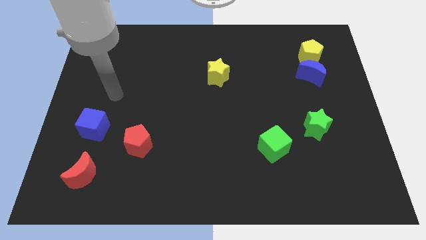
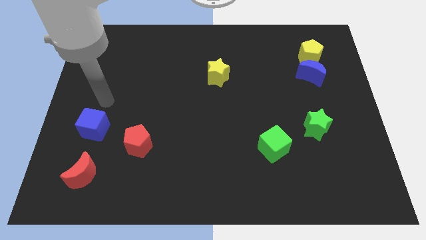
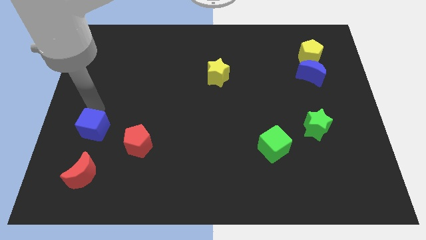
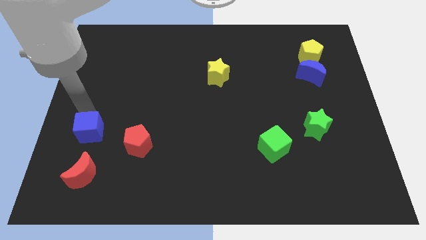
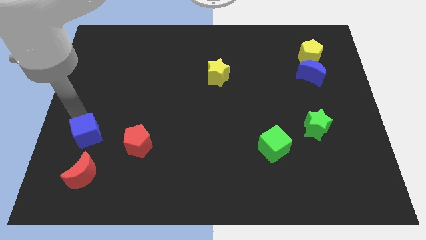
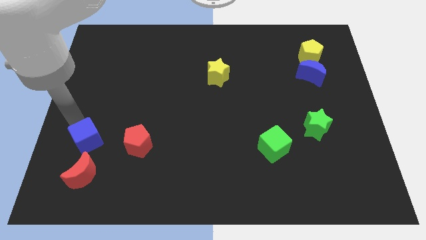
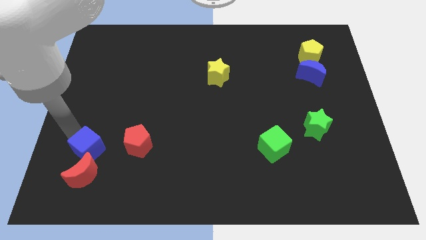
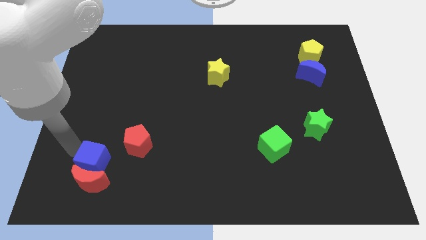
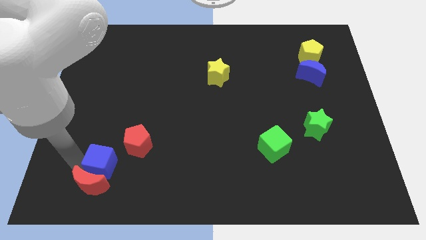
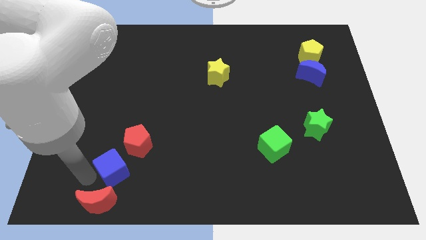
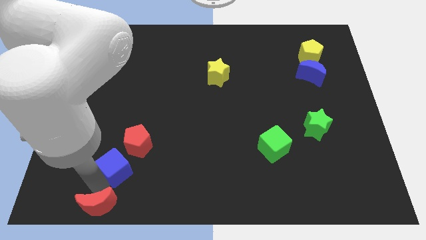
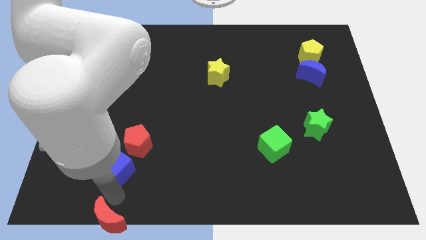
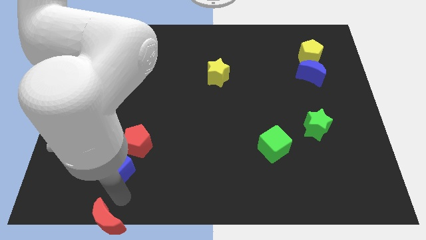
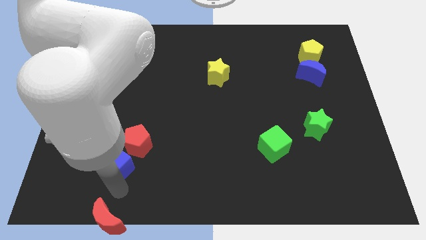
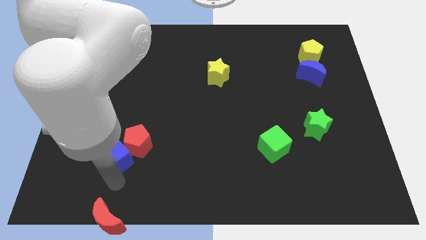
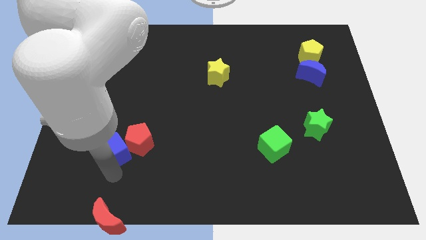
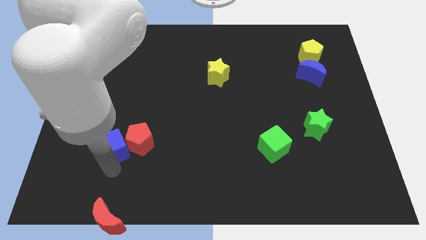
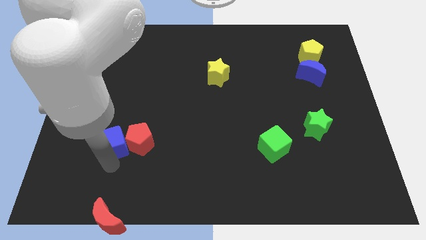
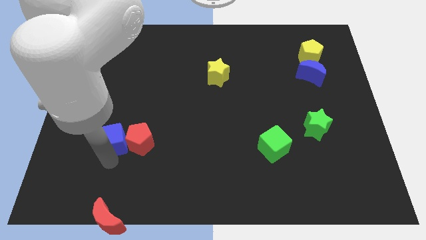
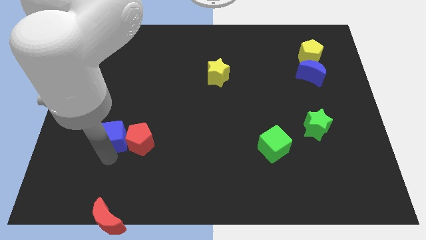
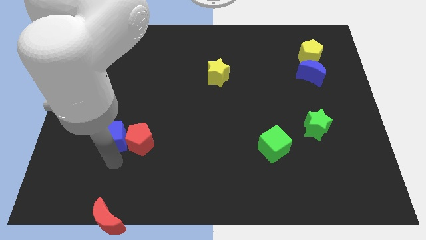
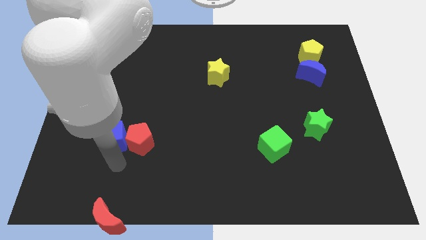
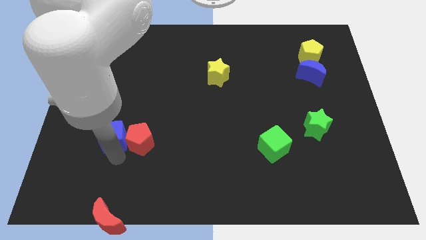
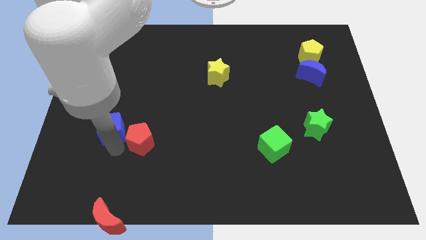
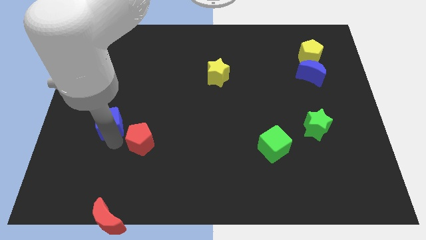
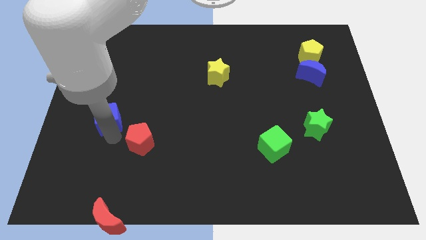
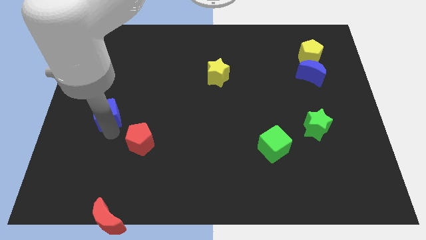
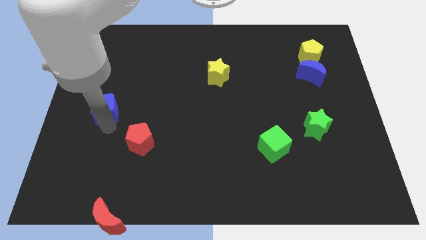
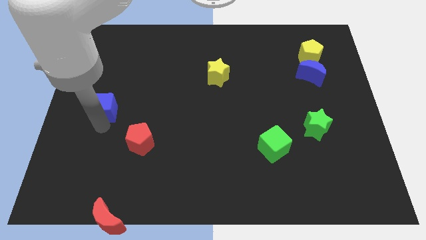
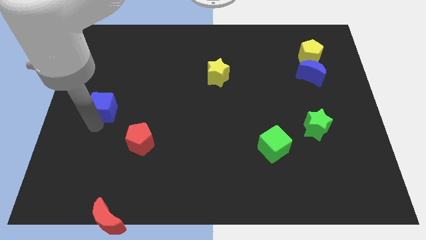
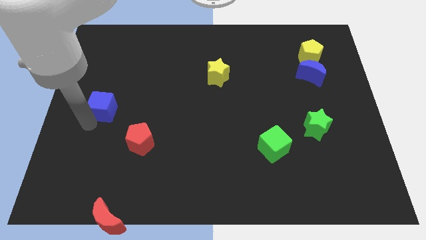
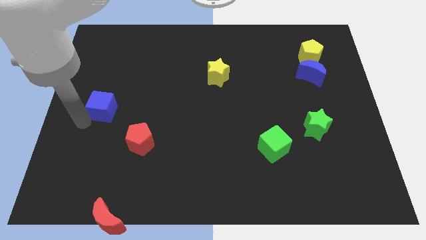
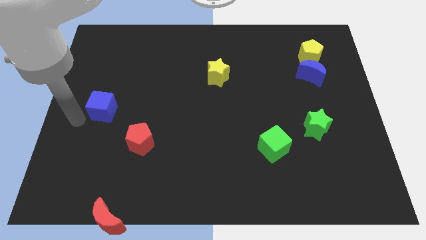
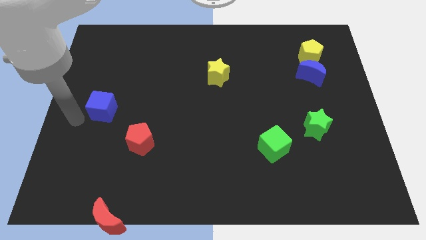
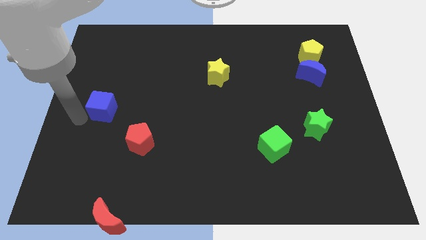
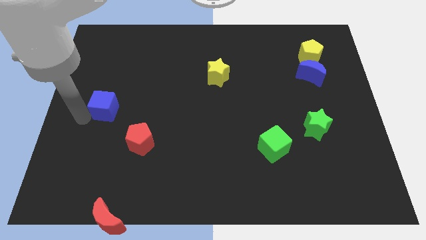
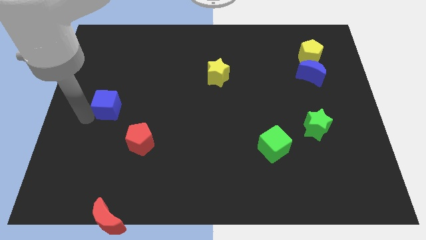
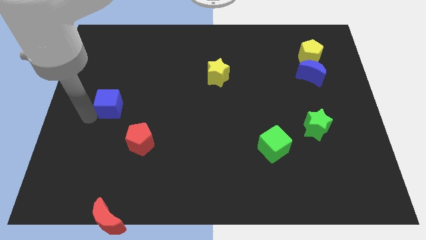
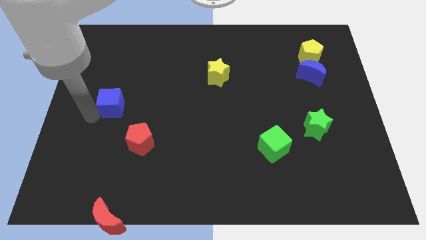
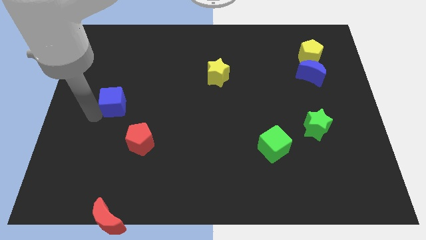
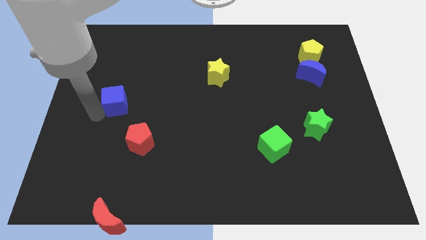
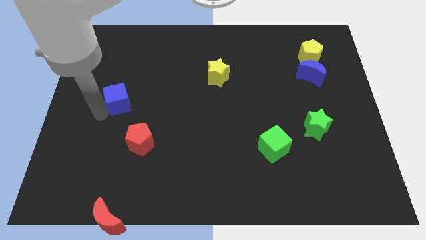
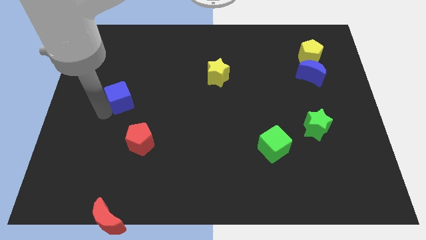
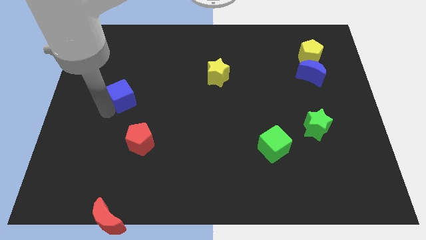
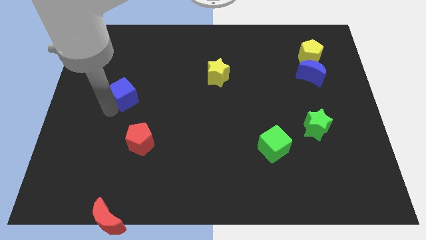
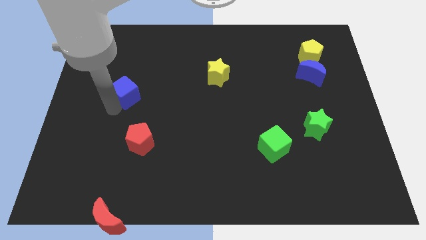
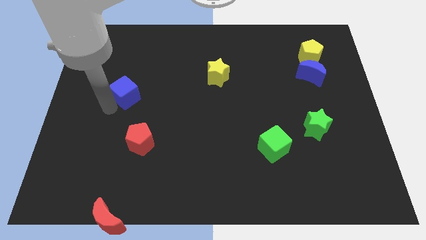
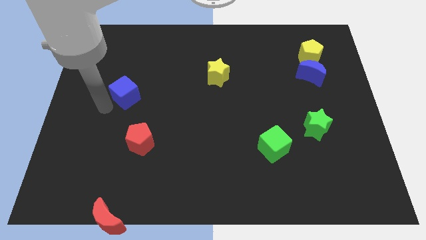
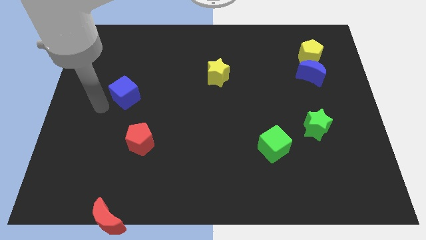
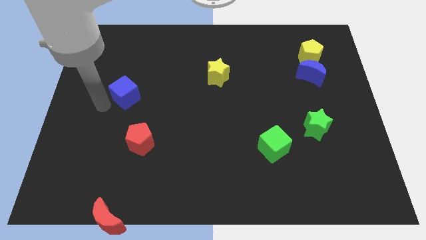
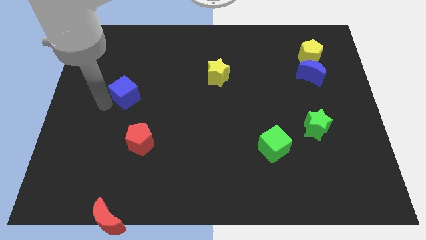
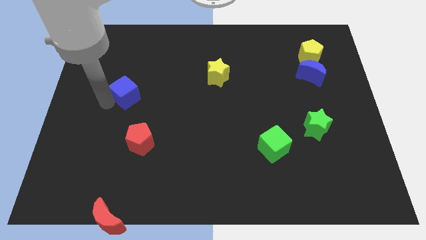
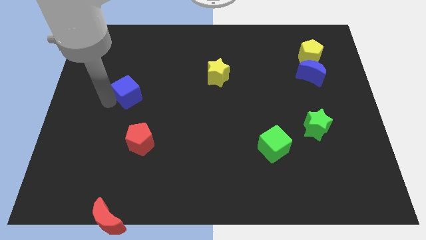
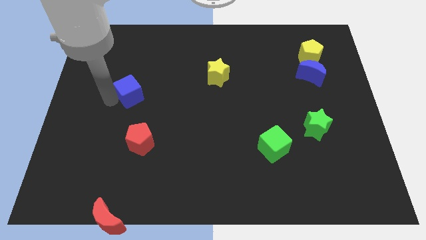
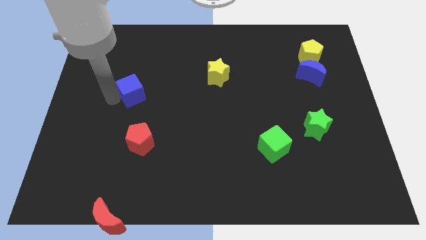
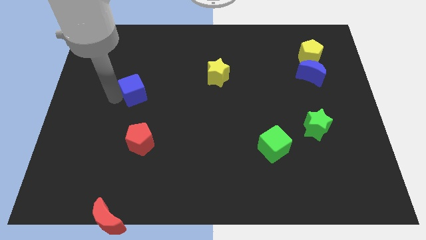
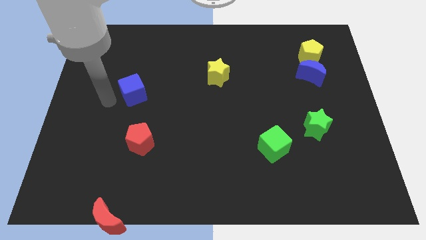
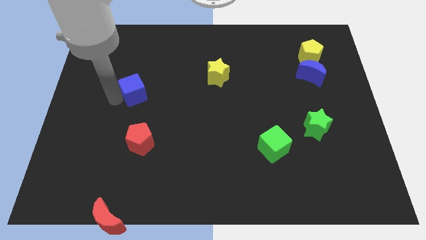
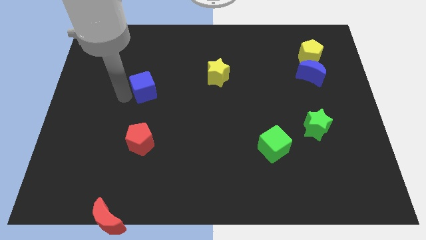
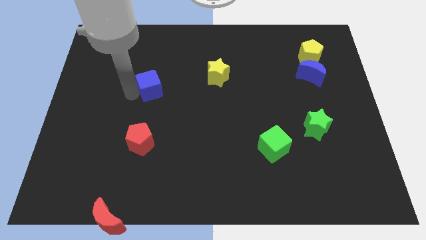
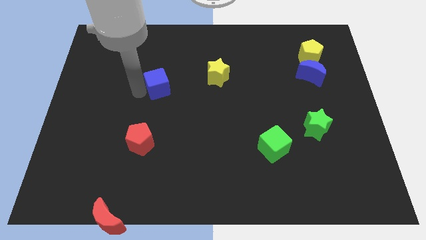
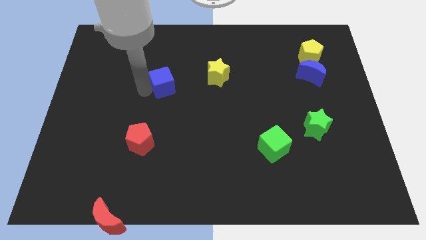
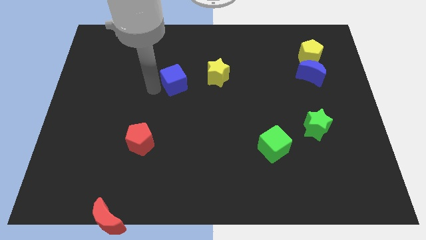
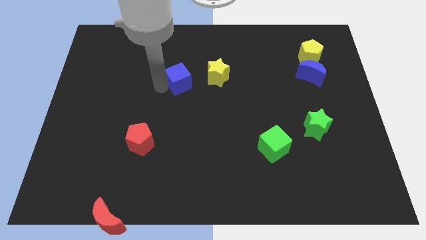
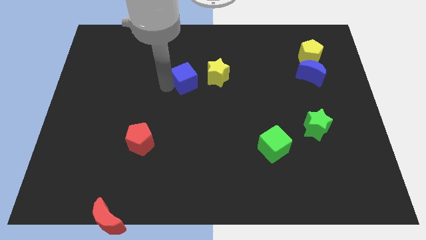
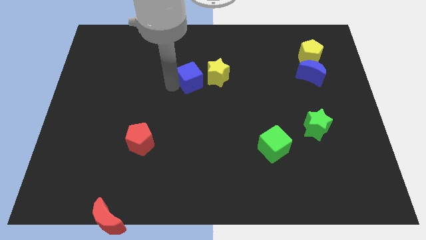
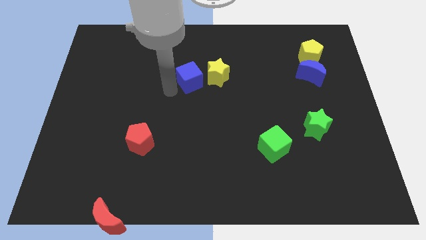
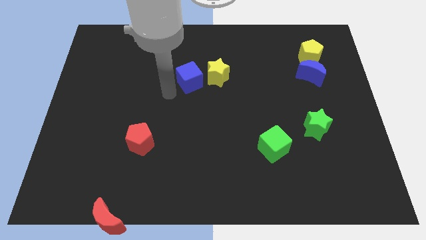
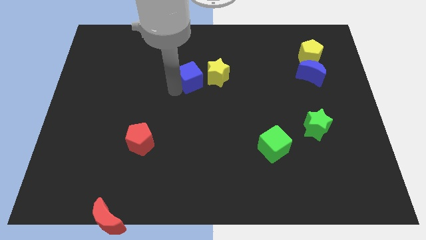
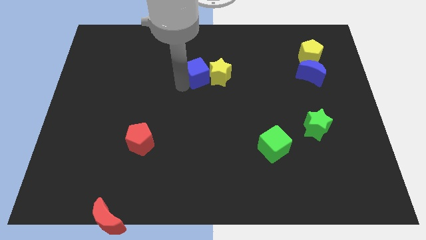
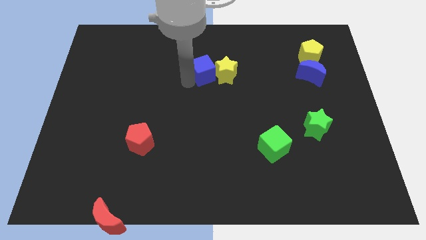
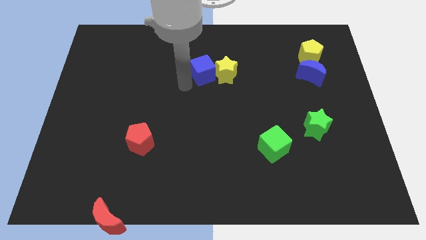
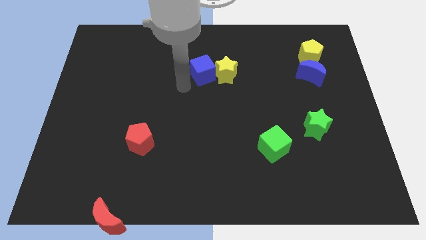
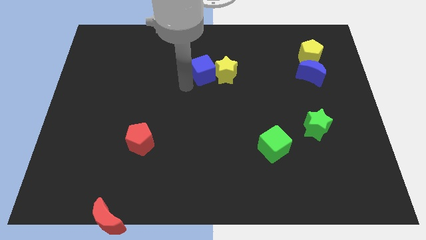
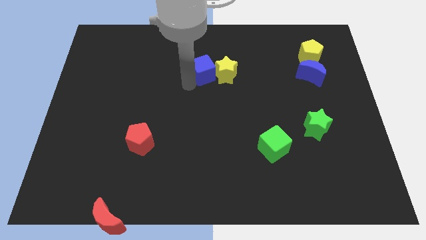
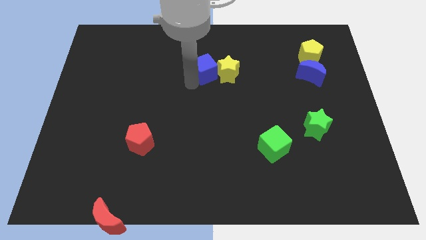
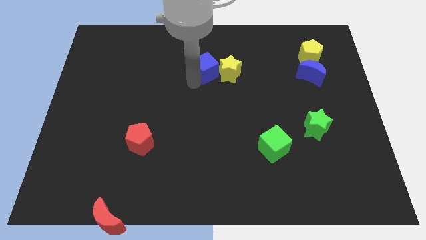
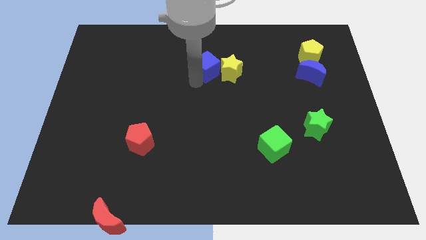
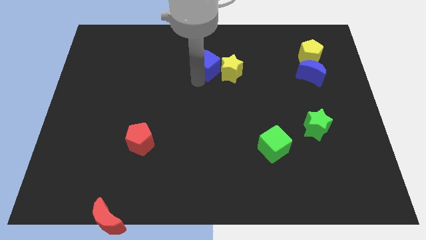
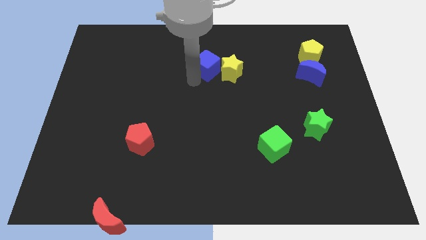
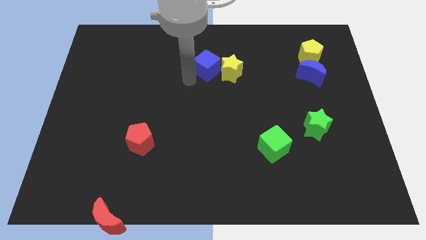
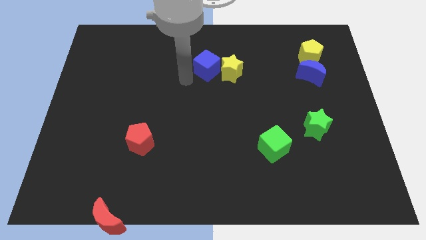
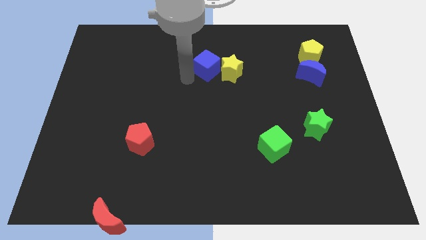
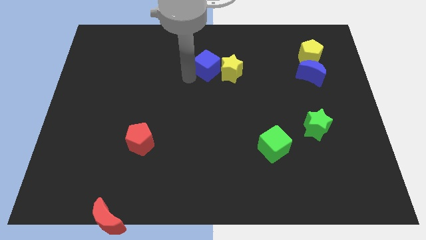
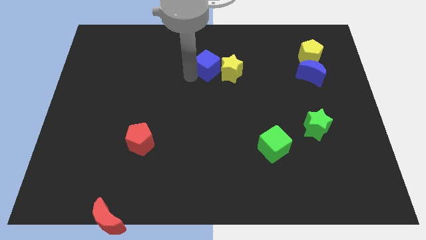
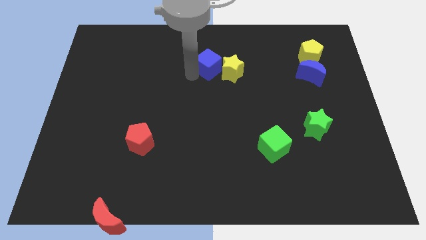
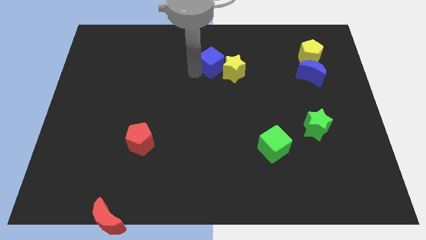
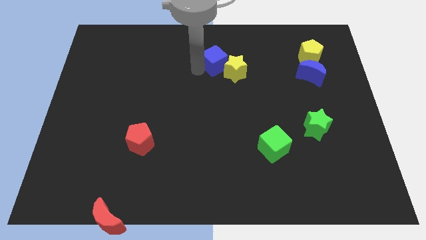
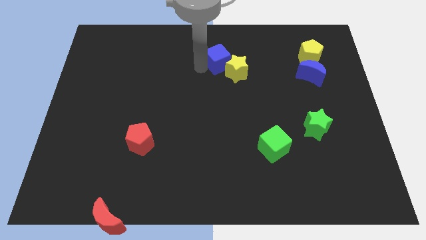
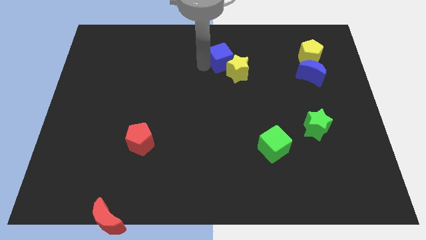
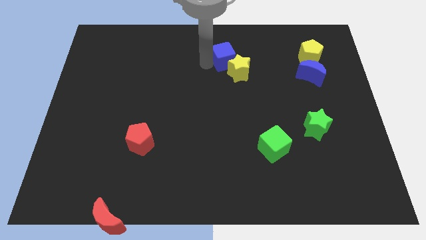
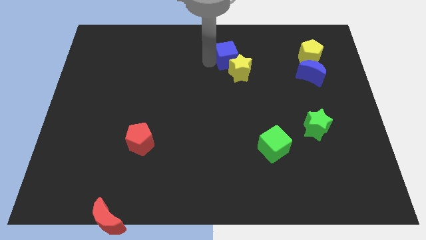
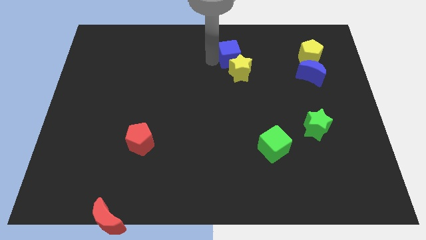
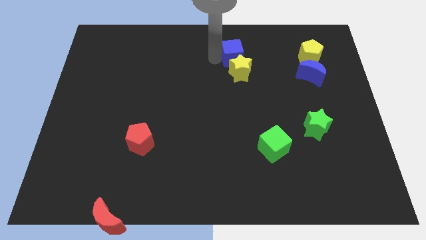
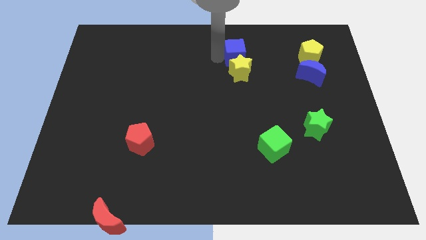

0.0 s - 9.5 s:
push the blue cube to the top right side of the yellow star
